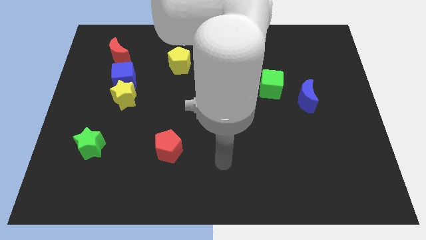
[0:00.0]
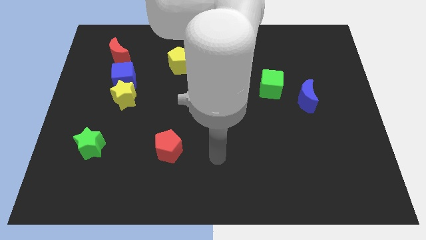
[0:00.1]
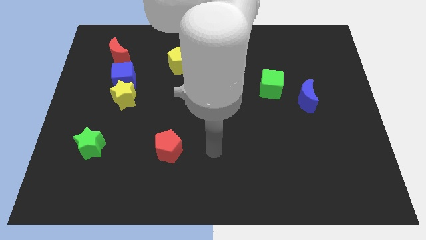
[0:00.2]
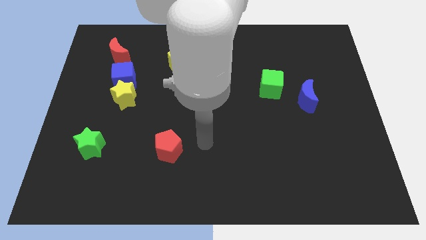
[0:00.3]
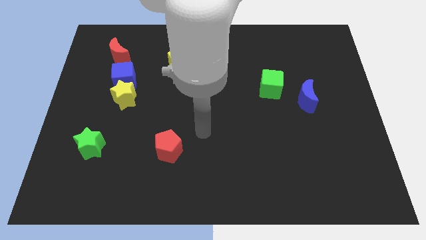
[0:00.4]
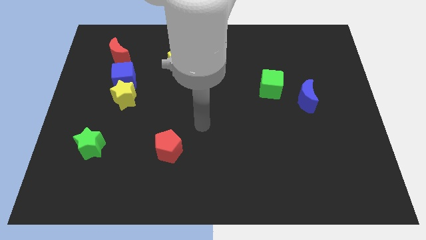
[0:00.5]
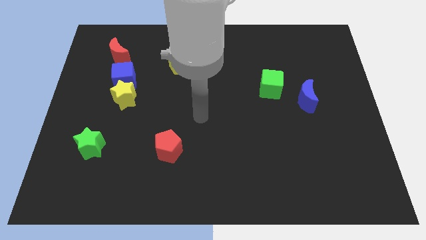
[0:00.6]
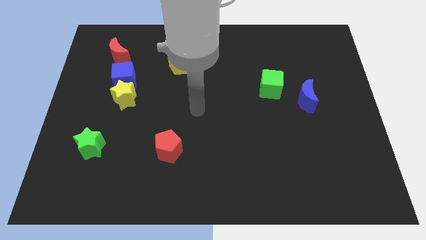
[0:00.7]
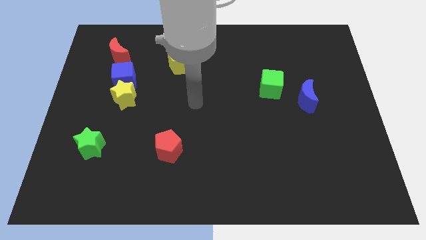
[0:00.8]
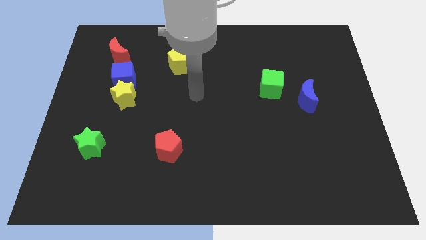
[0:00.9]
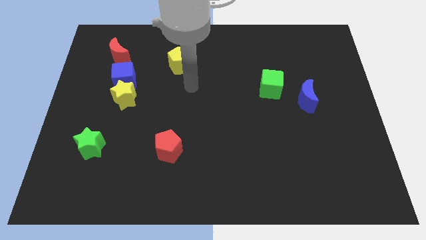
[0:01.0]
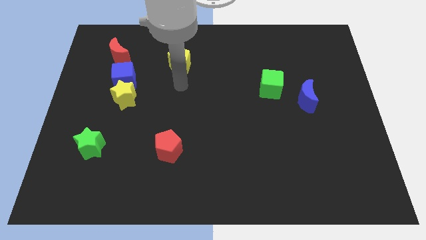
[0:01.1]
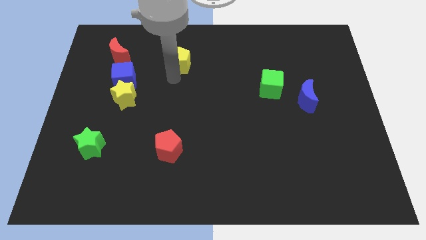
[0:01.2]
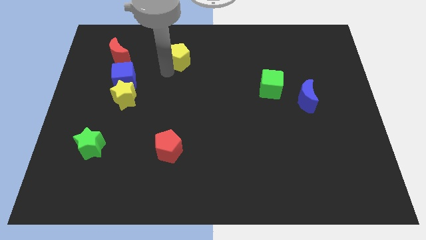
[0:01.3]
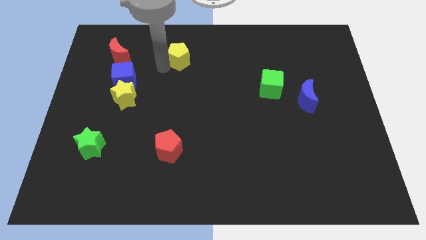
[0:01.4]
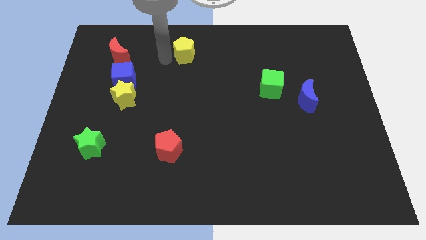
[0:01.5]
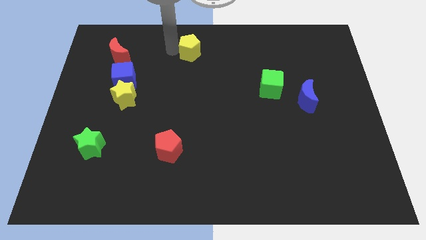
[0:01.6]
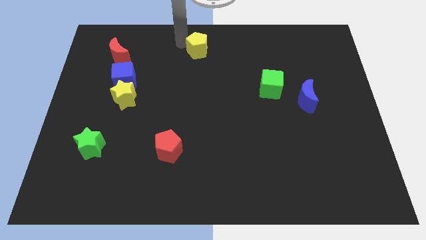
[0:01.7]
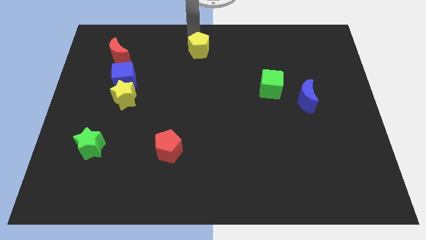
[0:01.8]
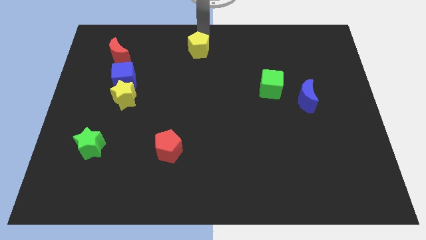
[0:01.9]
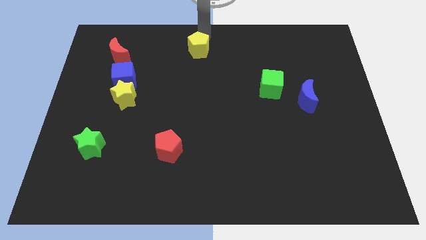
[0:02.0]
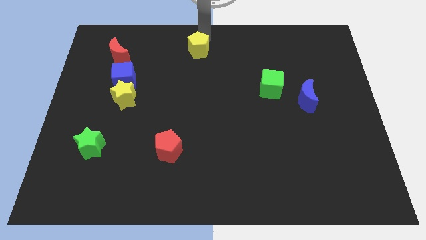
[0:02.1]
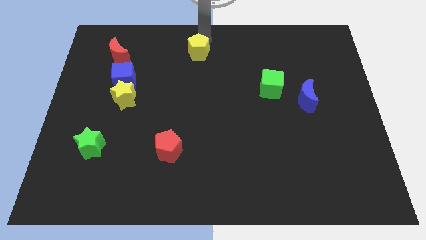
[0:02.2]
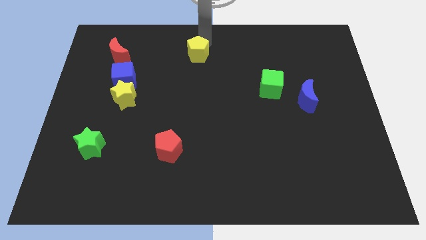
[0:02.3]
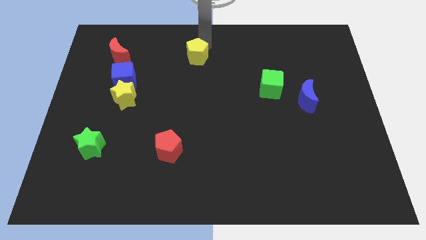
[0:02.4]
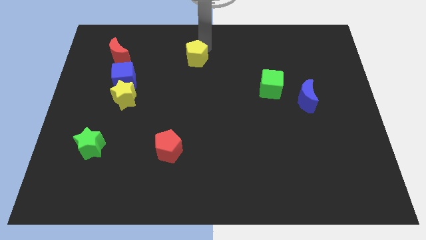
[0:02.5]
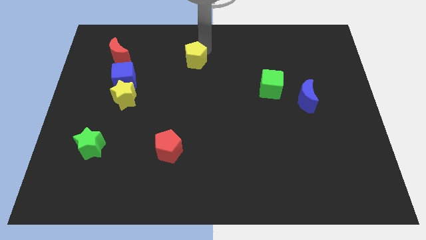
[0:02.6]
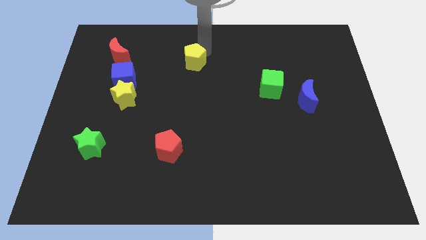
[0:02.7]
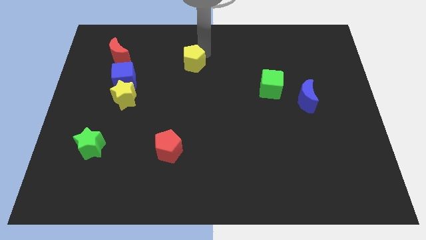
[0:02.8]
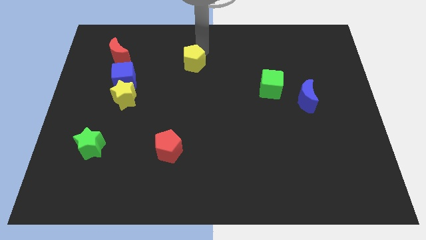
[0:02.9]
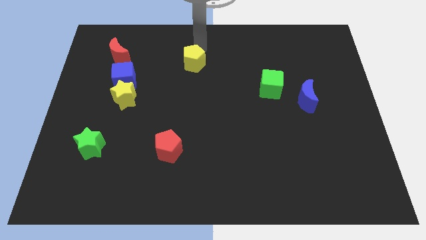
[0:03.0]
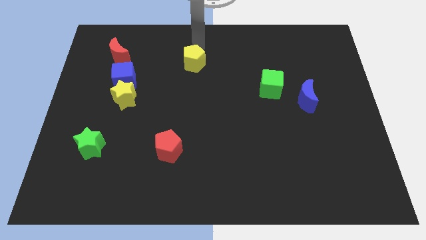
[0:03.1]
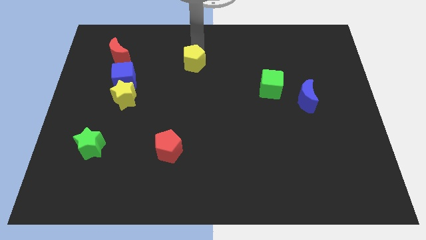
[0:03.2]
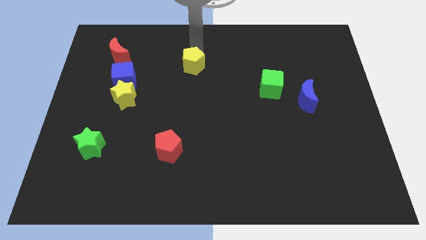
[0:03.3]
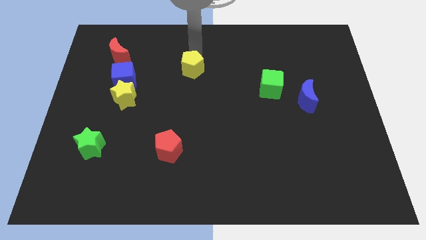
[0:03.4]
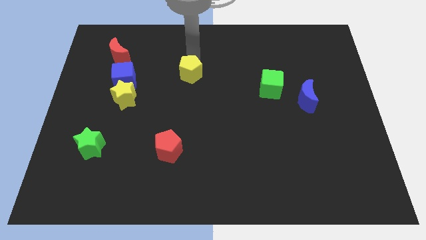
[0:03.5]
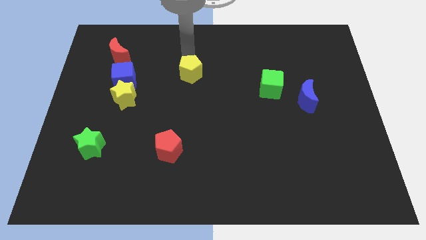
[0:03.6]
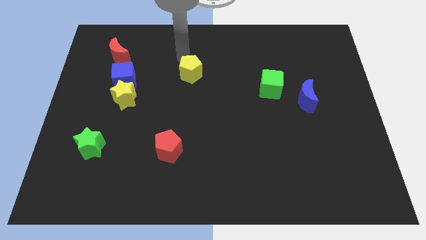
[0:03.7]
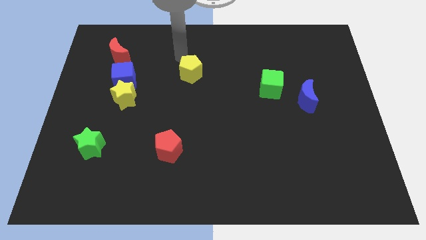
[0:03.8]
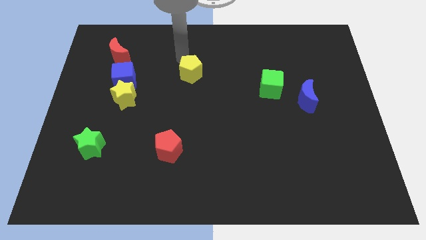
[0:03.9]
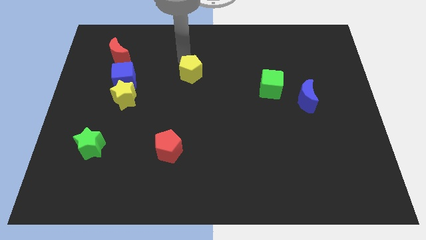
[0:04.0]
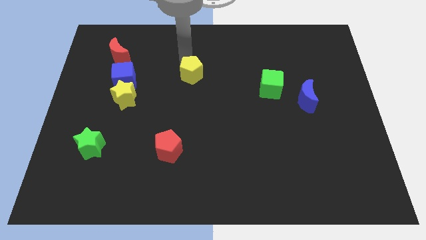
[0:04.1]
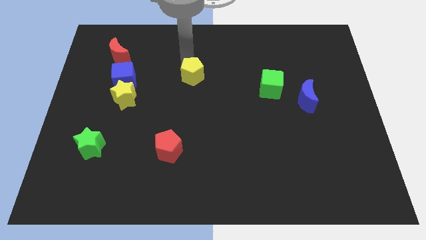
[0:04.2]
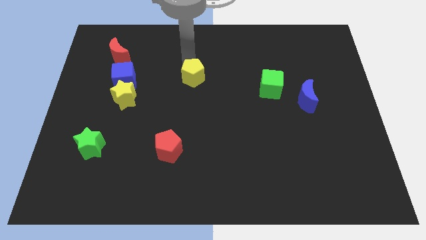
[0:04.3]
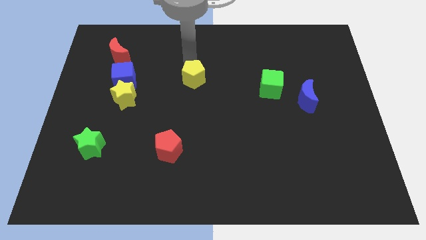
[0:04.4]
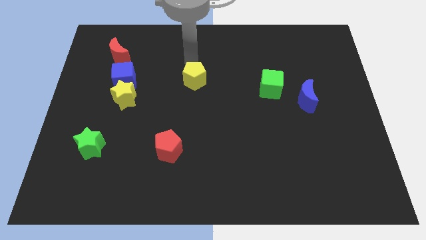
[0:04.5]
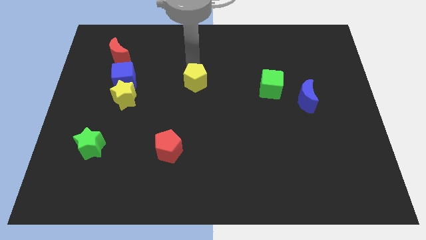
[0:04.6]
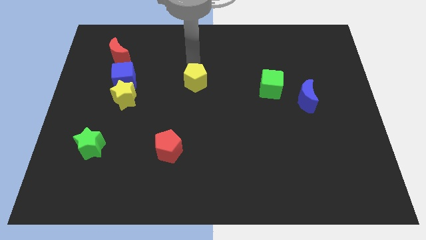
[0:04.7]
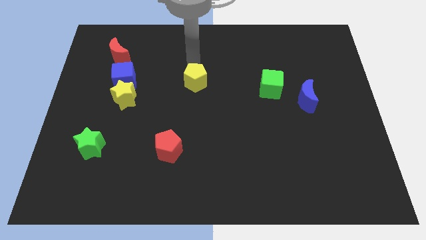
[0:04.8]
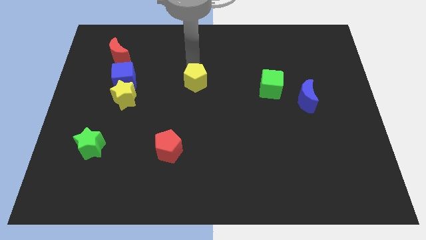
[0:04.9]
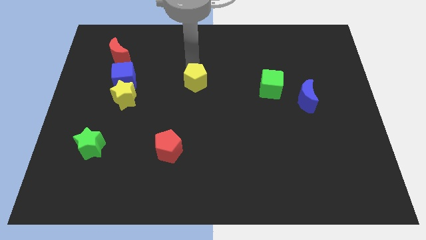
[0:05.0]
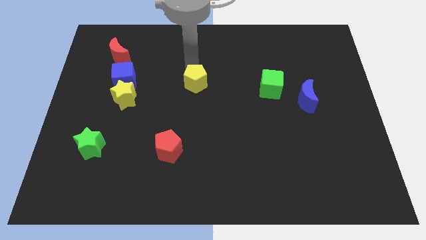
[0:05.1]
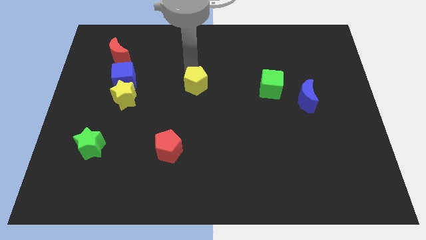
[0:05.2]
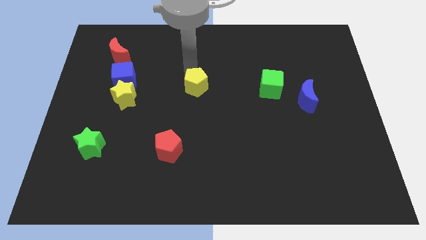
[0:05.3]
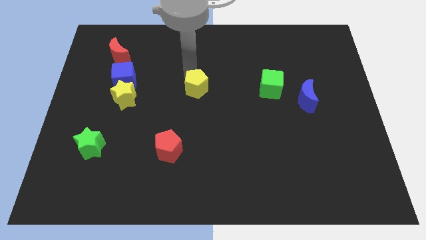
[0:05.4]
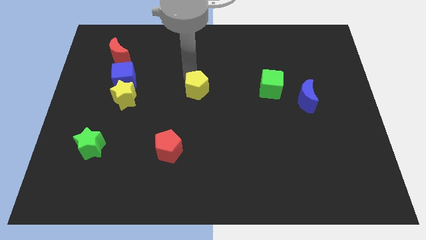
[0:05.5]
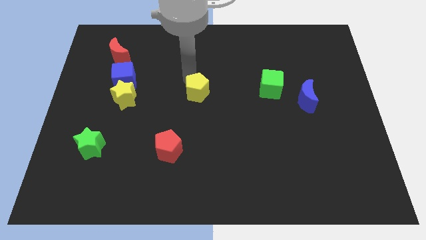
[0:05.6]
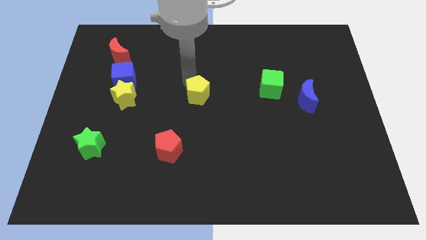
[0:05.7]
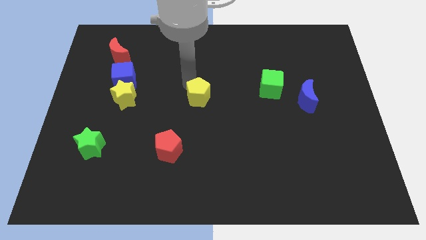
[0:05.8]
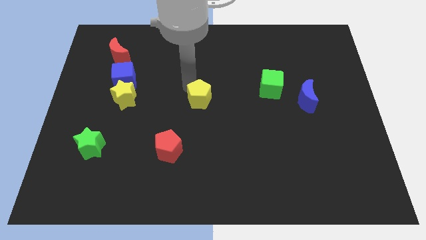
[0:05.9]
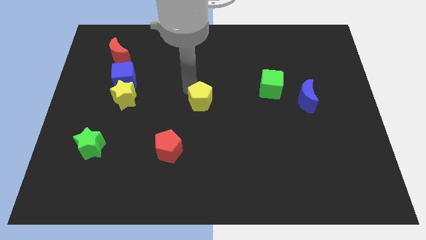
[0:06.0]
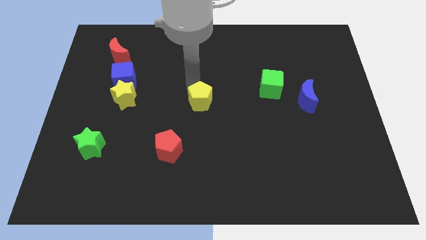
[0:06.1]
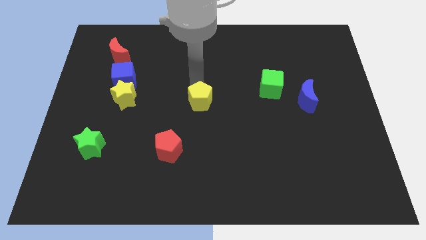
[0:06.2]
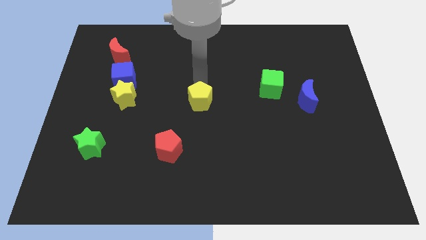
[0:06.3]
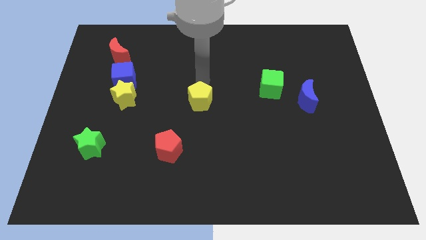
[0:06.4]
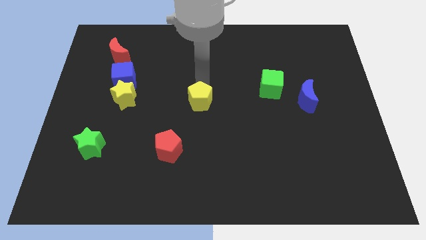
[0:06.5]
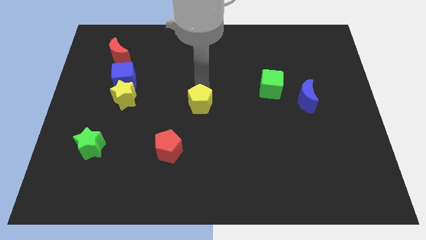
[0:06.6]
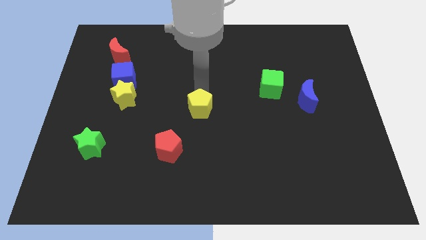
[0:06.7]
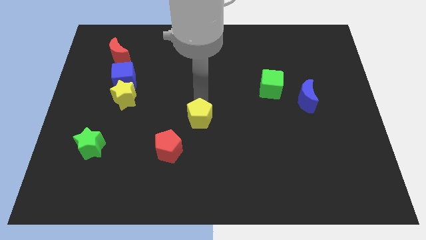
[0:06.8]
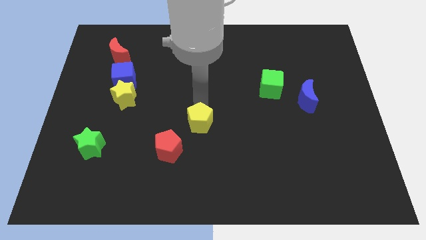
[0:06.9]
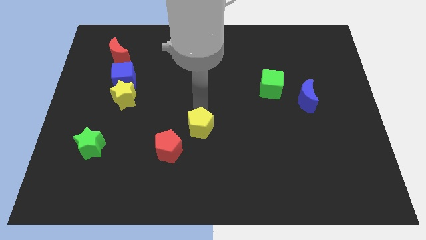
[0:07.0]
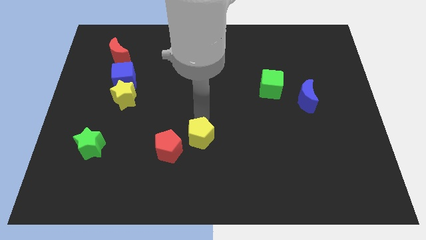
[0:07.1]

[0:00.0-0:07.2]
move the yellow pentagon downwards

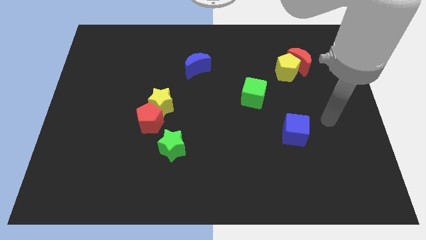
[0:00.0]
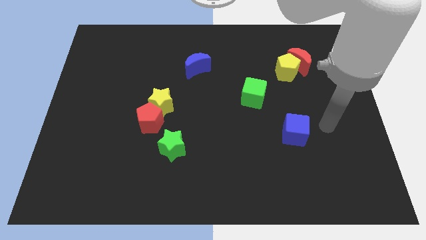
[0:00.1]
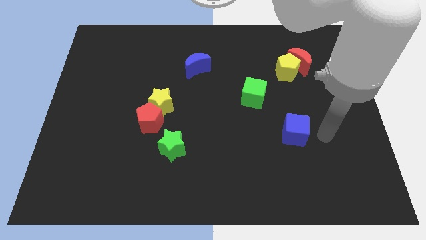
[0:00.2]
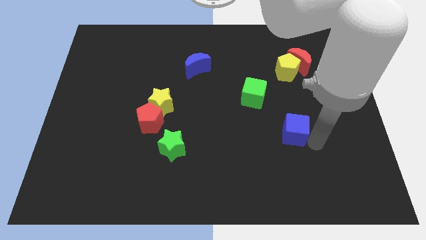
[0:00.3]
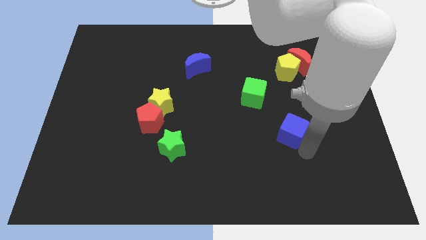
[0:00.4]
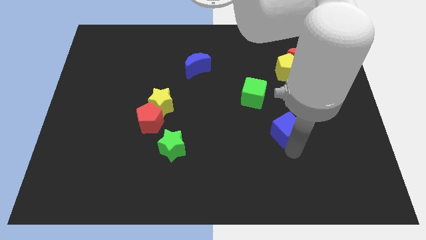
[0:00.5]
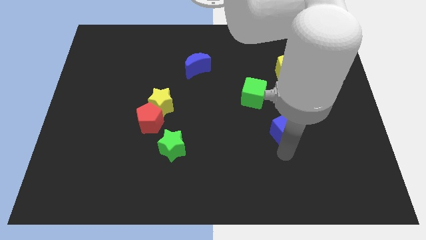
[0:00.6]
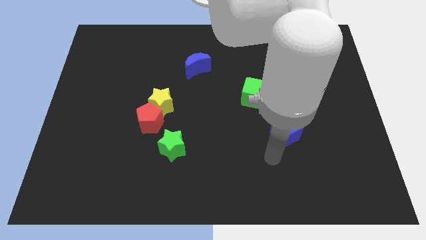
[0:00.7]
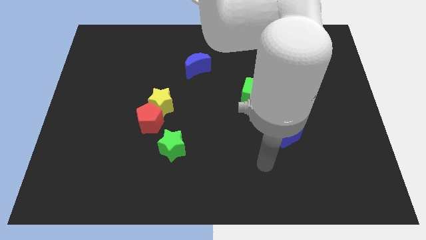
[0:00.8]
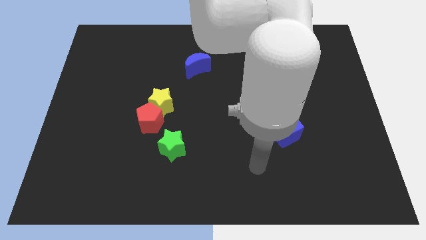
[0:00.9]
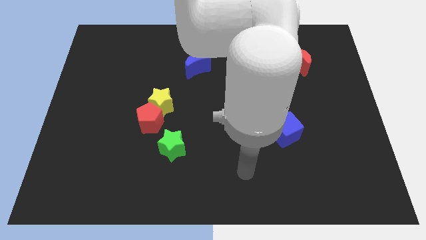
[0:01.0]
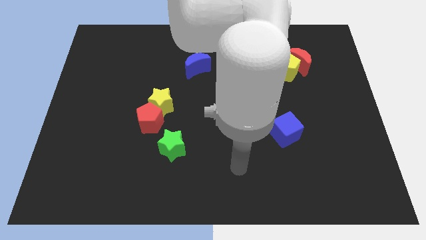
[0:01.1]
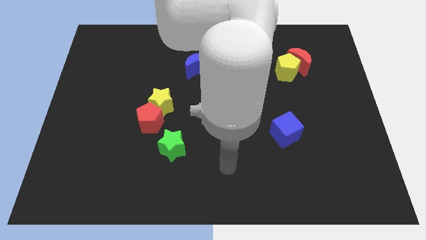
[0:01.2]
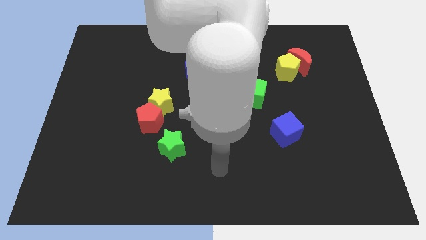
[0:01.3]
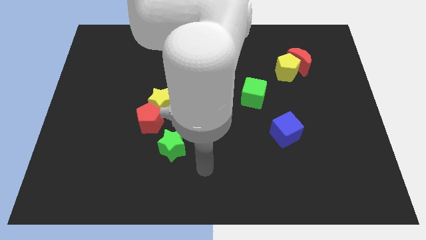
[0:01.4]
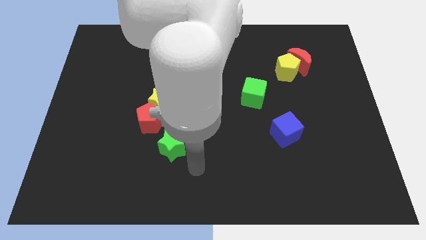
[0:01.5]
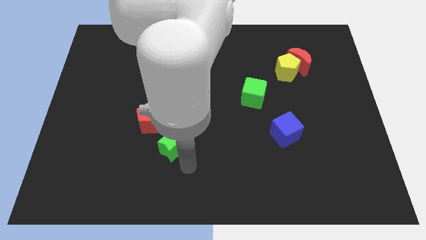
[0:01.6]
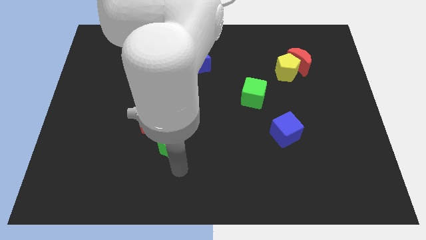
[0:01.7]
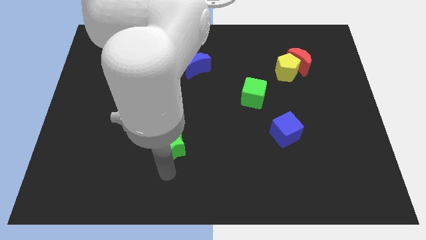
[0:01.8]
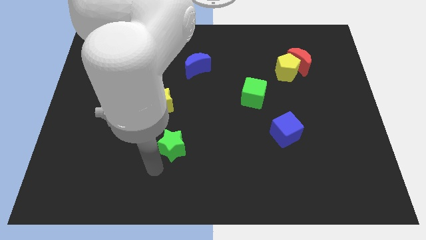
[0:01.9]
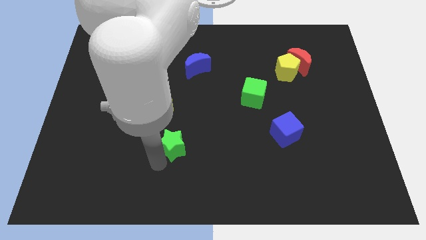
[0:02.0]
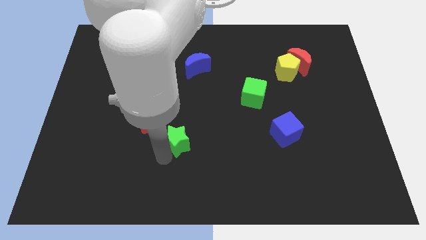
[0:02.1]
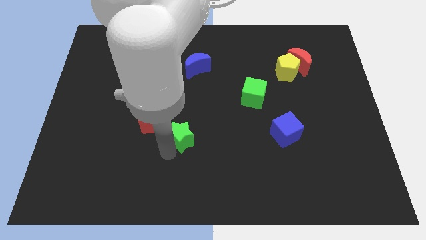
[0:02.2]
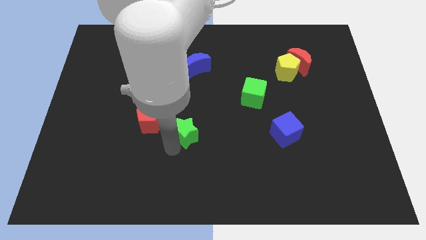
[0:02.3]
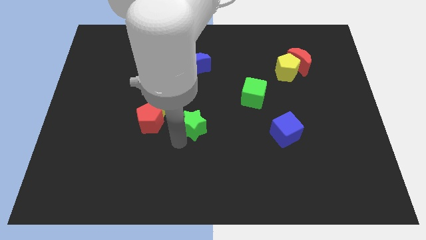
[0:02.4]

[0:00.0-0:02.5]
slide the green star a little bit upwards and to the right
